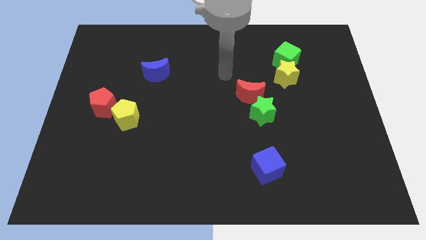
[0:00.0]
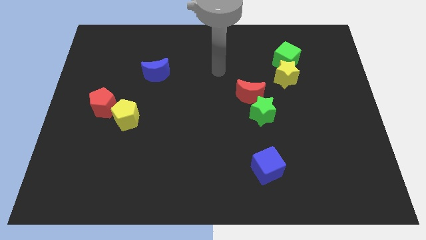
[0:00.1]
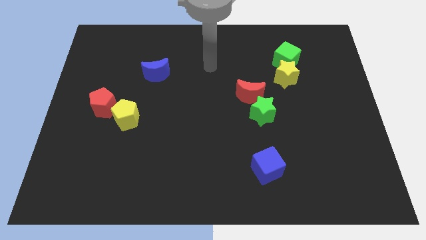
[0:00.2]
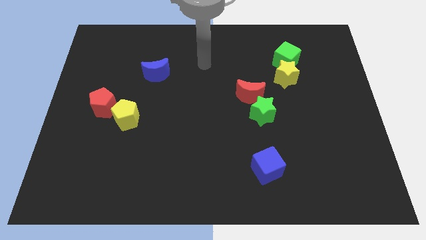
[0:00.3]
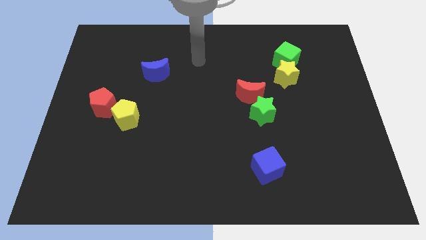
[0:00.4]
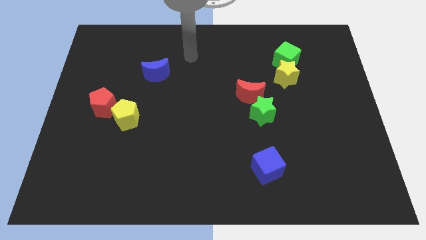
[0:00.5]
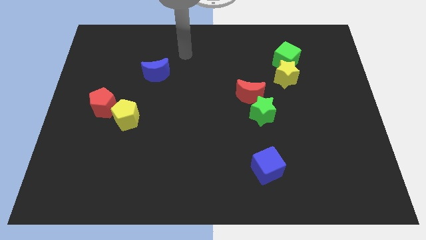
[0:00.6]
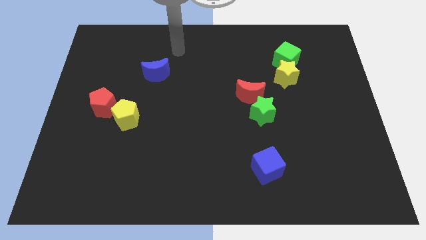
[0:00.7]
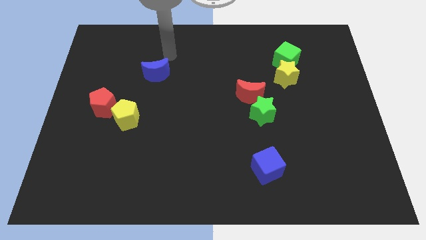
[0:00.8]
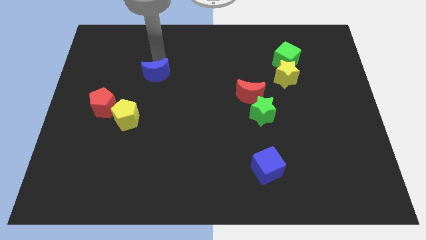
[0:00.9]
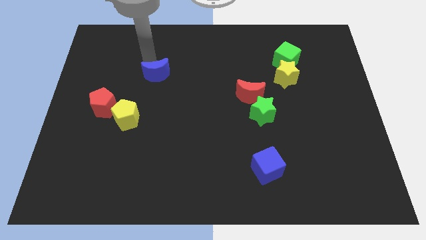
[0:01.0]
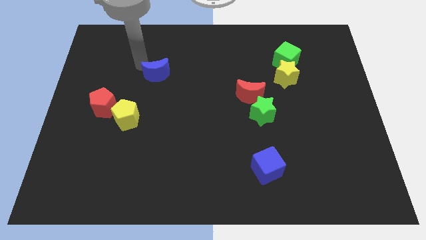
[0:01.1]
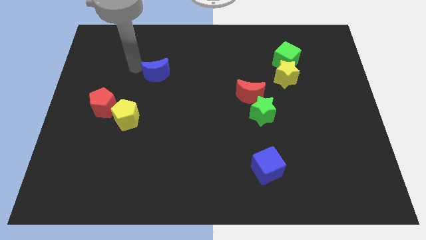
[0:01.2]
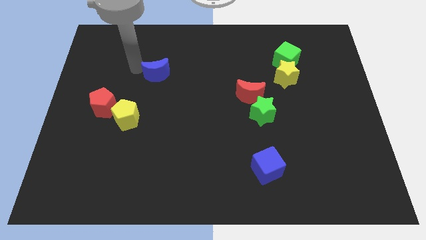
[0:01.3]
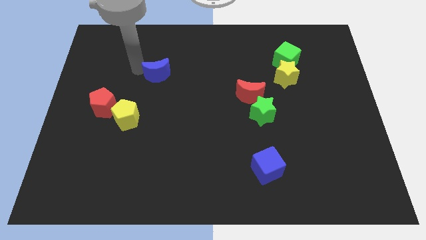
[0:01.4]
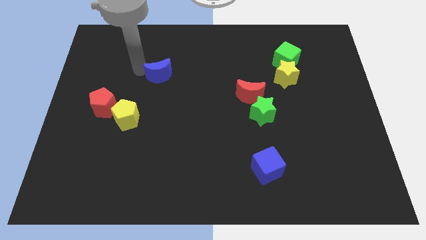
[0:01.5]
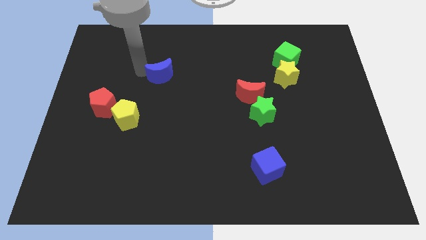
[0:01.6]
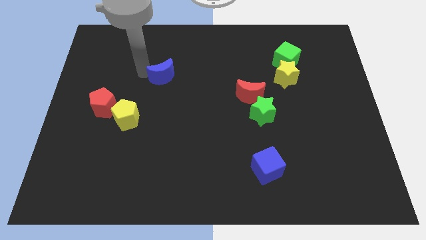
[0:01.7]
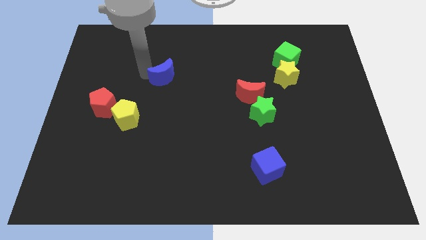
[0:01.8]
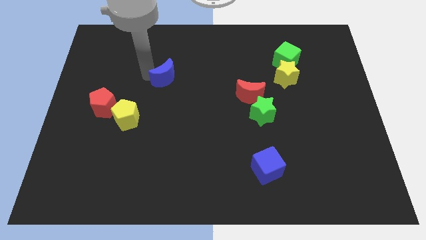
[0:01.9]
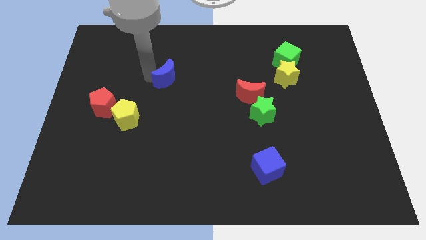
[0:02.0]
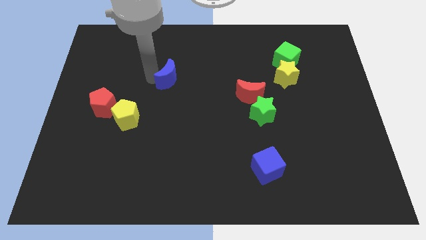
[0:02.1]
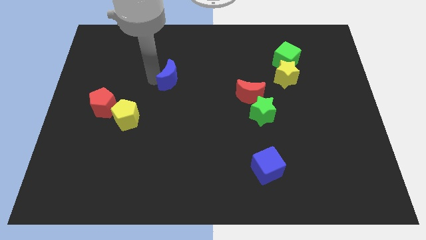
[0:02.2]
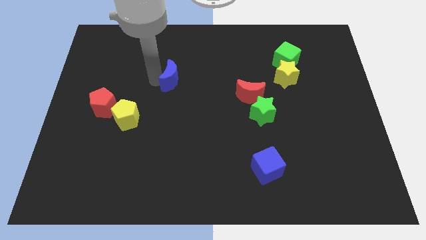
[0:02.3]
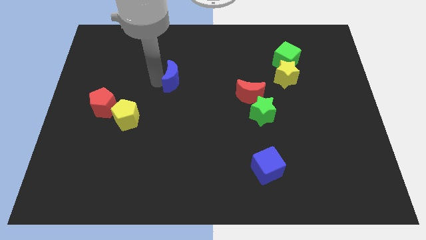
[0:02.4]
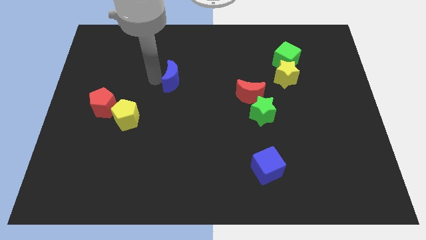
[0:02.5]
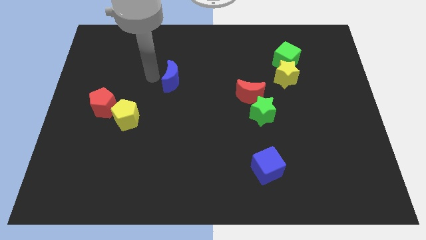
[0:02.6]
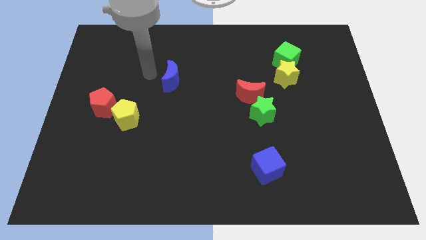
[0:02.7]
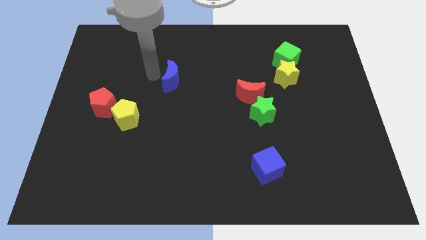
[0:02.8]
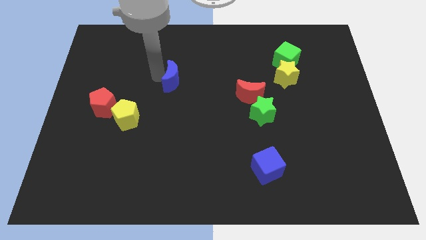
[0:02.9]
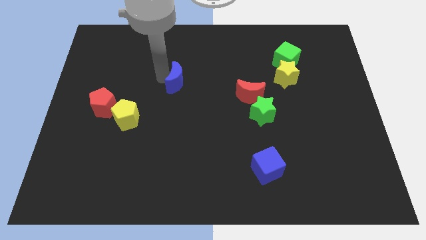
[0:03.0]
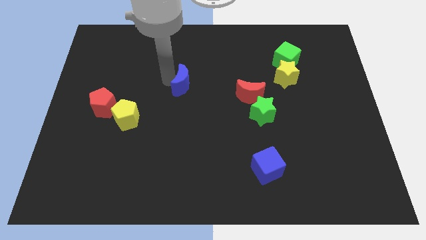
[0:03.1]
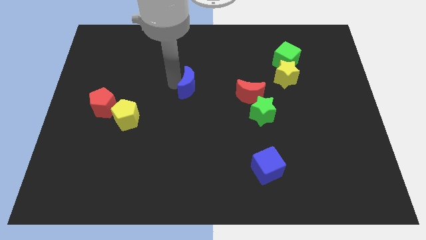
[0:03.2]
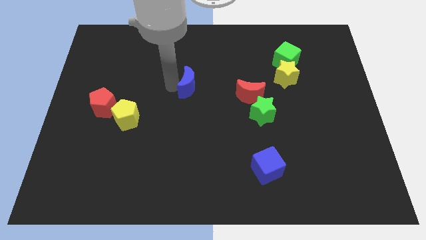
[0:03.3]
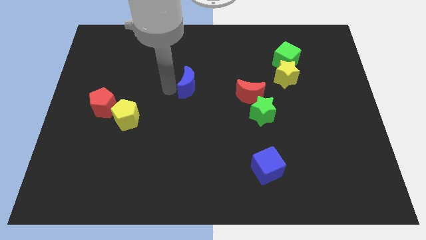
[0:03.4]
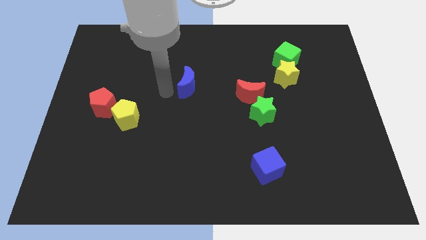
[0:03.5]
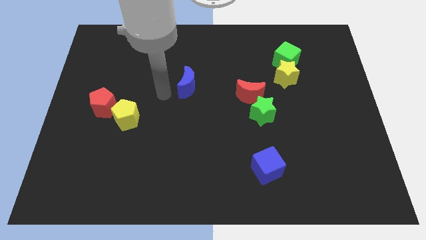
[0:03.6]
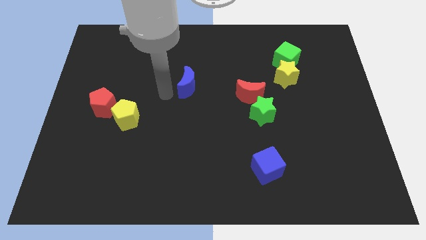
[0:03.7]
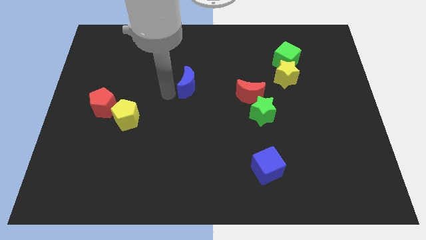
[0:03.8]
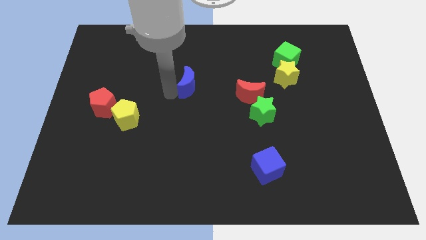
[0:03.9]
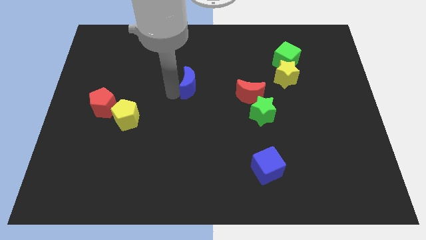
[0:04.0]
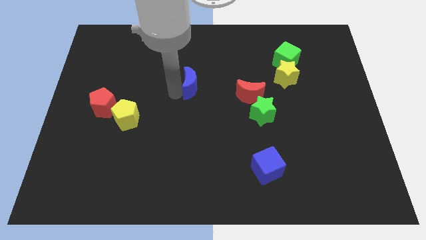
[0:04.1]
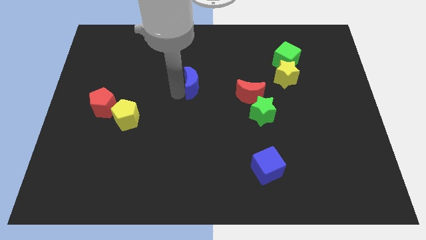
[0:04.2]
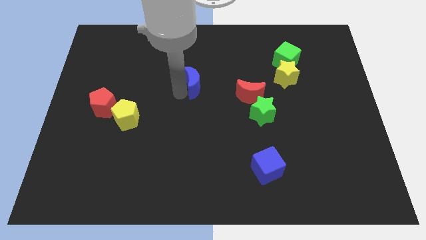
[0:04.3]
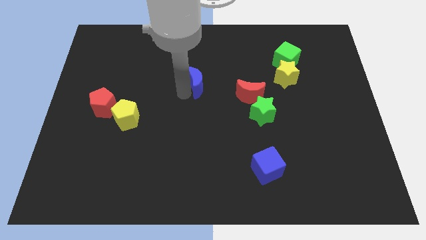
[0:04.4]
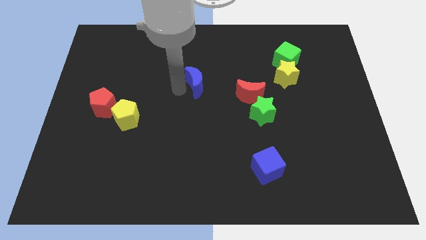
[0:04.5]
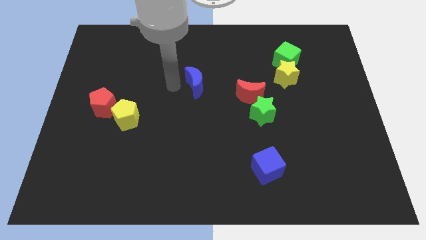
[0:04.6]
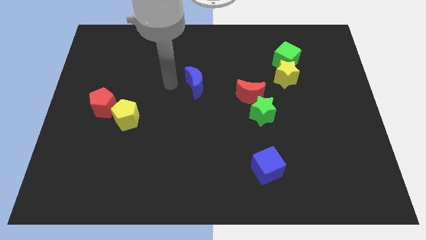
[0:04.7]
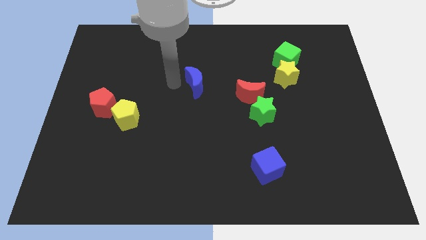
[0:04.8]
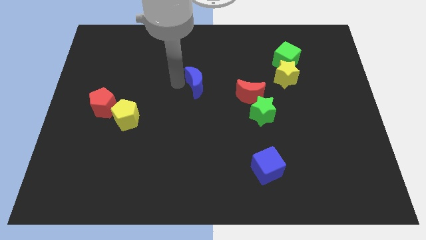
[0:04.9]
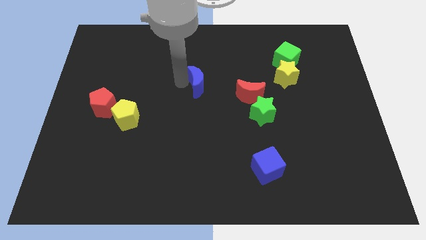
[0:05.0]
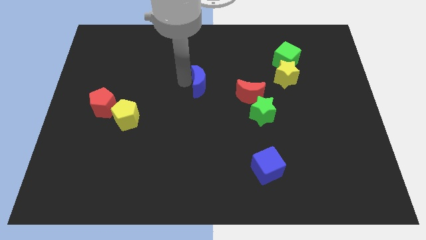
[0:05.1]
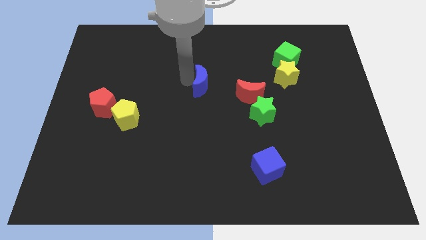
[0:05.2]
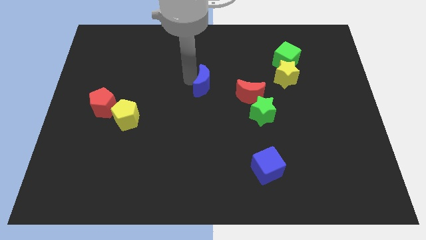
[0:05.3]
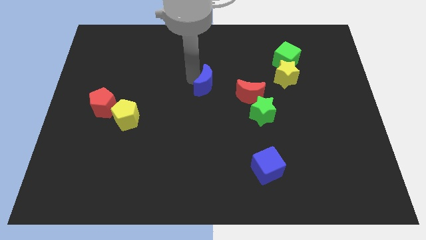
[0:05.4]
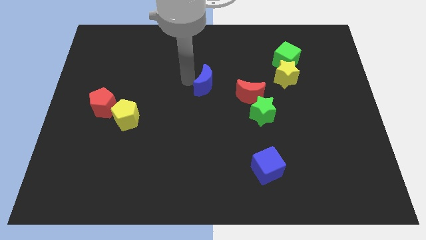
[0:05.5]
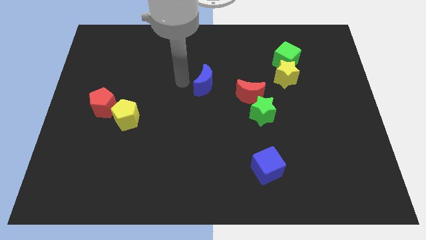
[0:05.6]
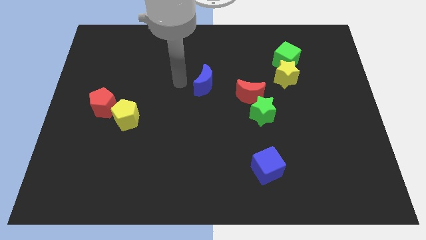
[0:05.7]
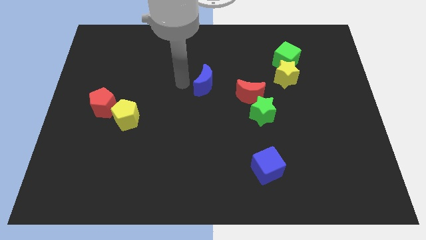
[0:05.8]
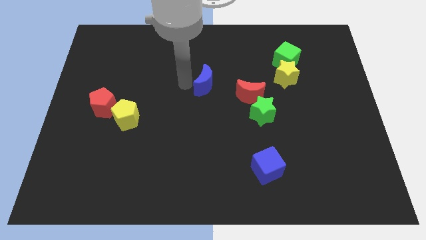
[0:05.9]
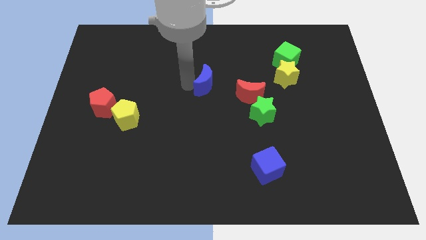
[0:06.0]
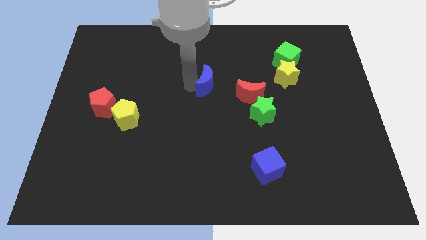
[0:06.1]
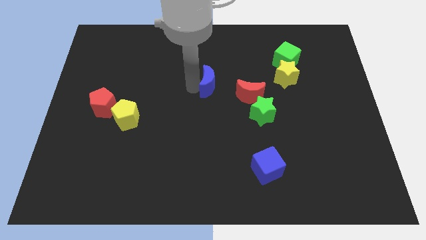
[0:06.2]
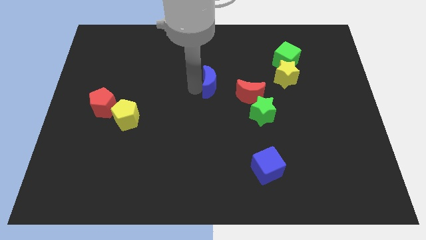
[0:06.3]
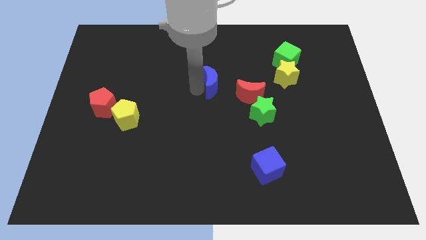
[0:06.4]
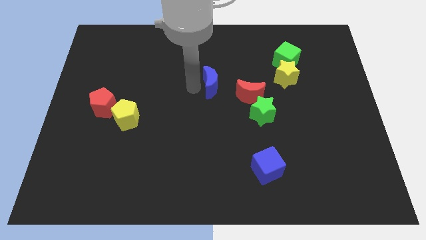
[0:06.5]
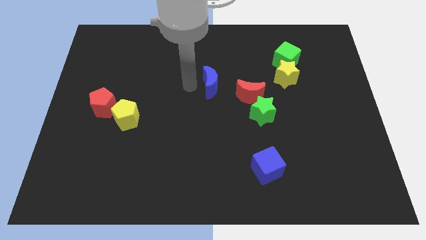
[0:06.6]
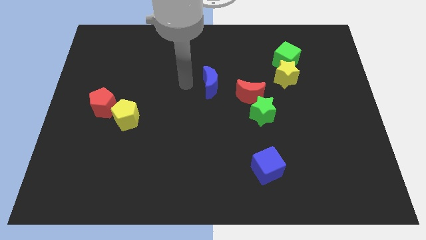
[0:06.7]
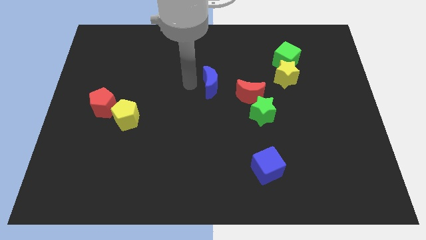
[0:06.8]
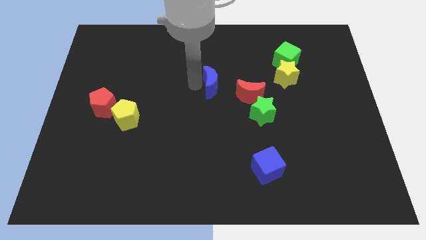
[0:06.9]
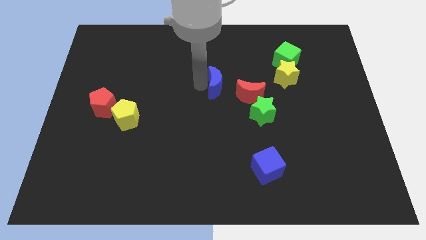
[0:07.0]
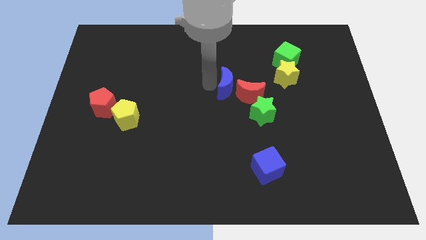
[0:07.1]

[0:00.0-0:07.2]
put the blue moon next to the red moon
